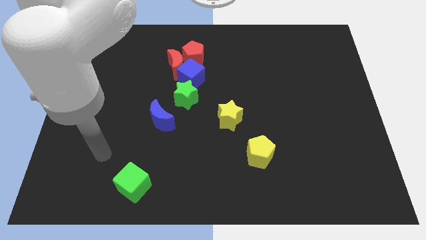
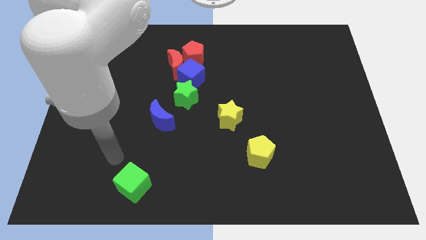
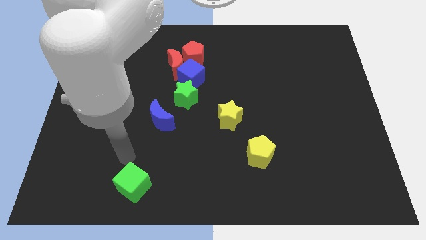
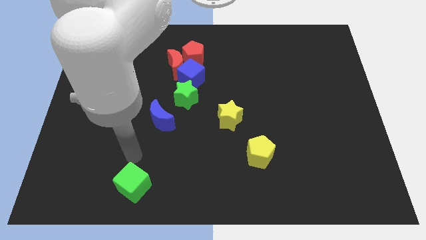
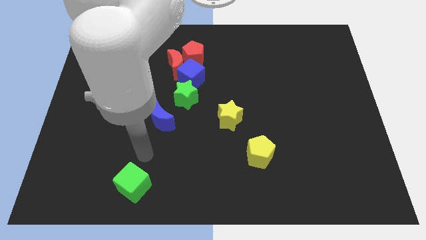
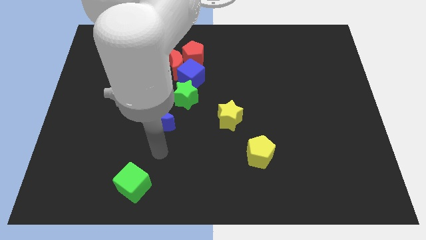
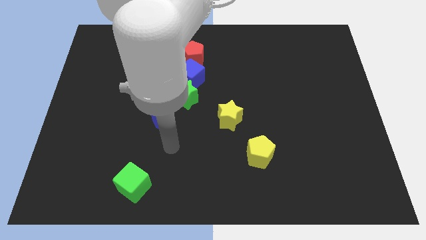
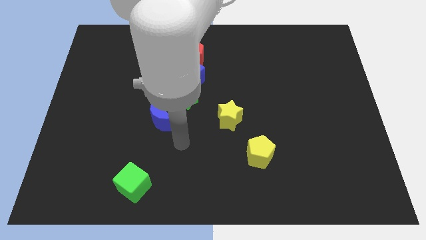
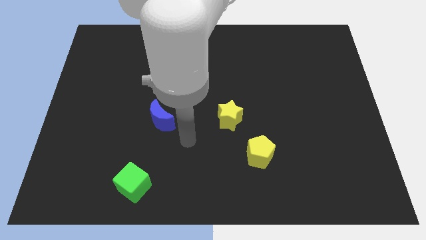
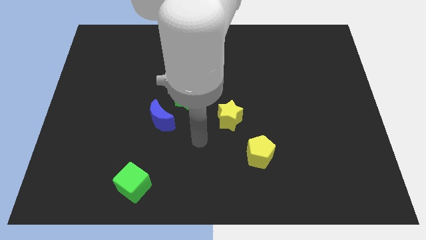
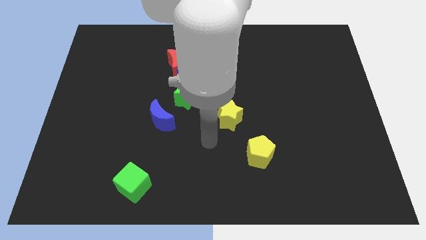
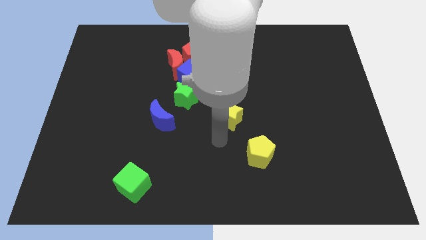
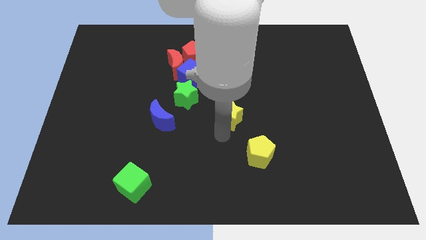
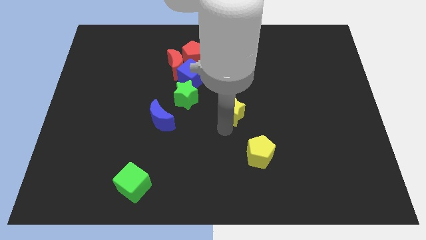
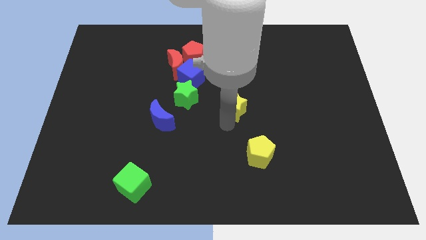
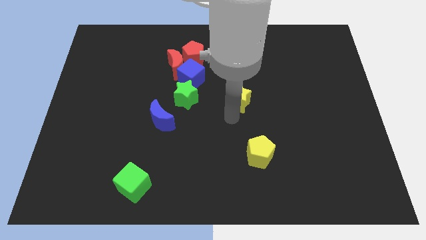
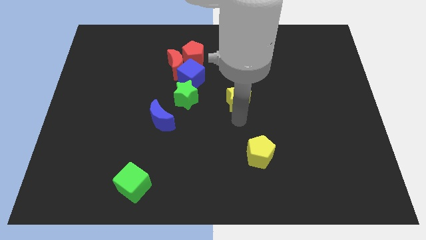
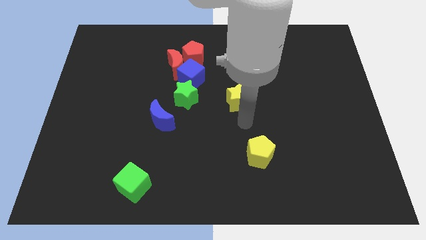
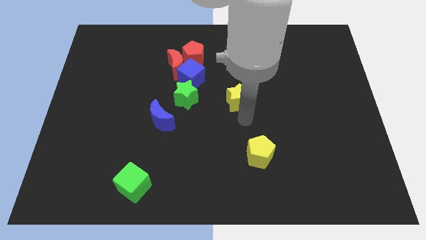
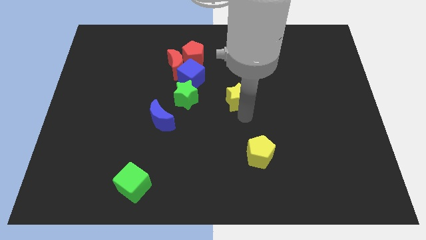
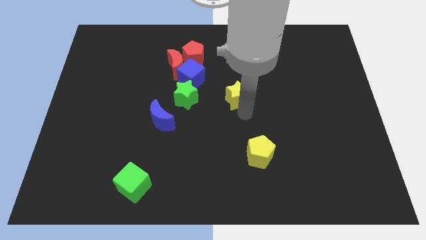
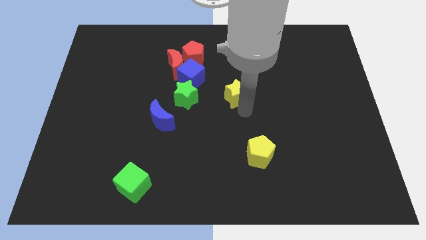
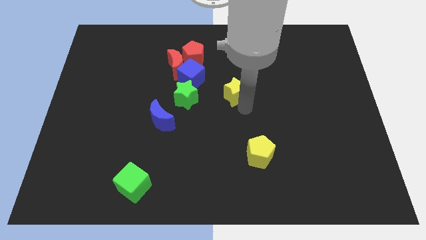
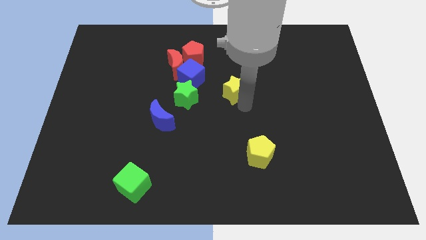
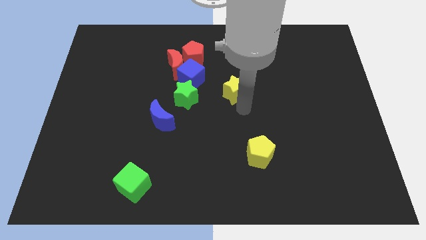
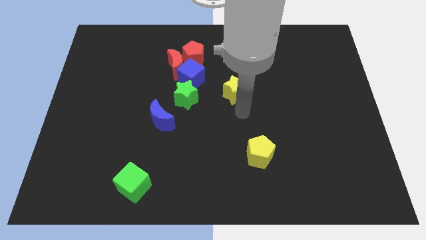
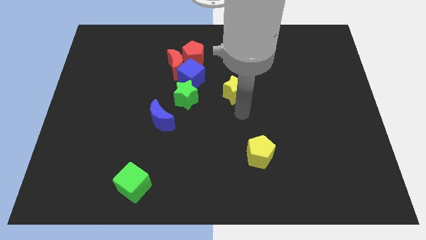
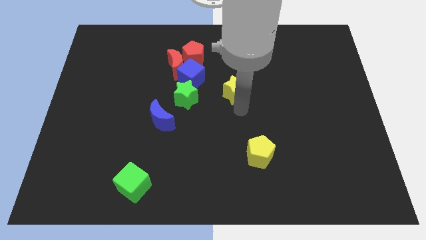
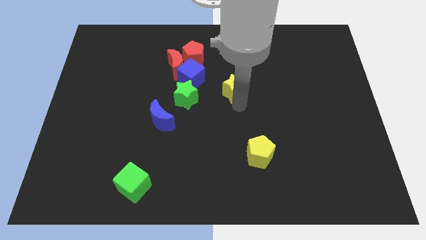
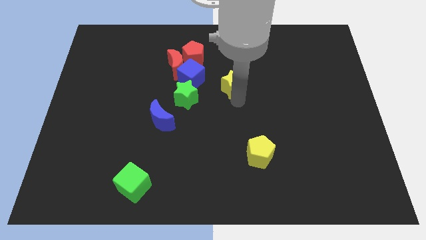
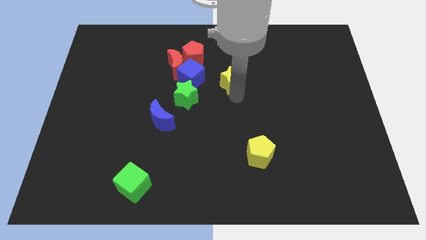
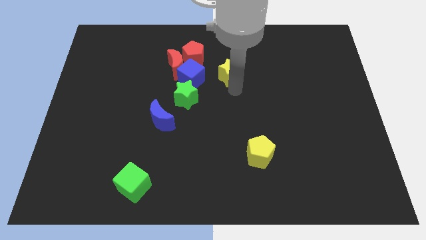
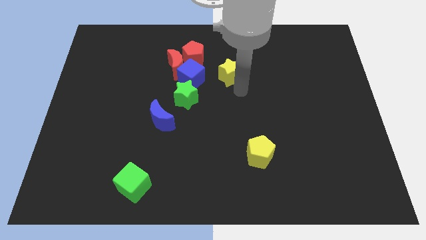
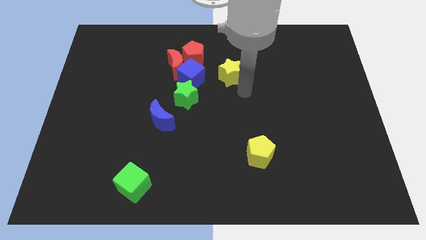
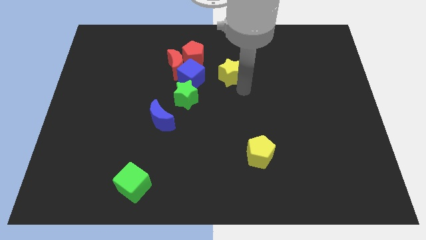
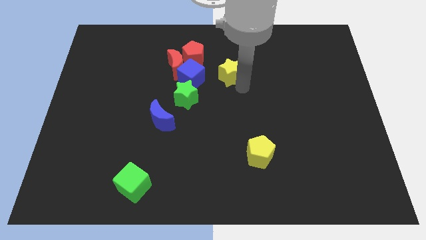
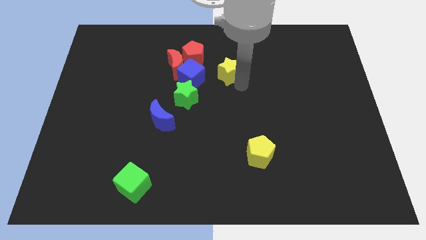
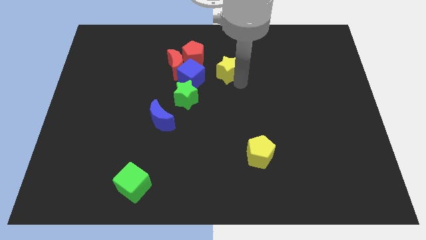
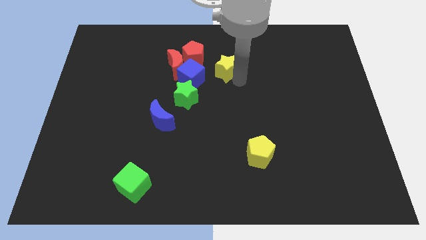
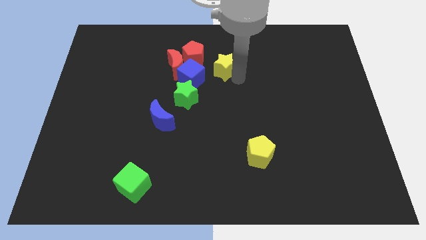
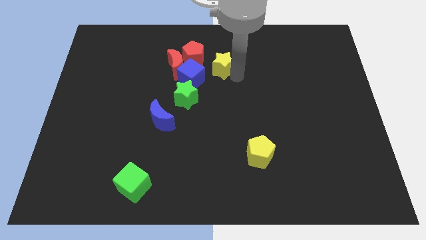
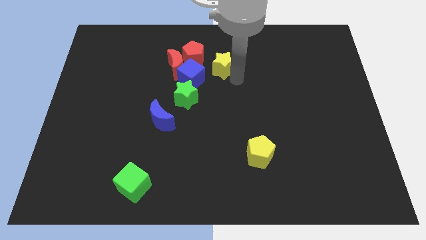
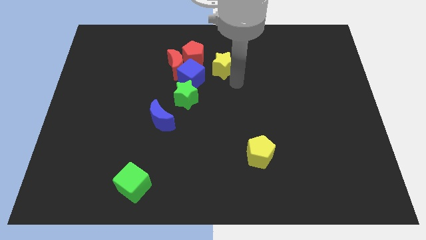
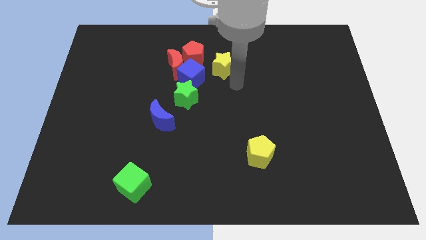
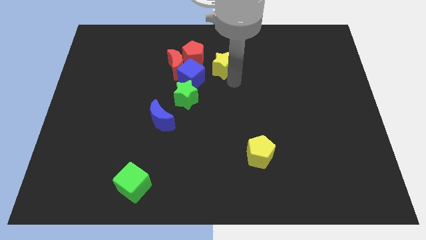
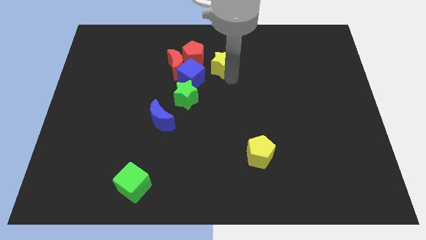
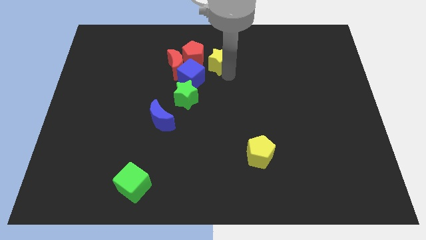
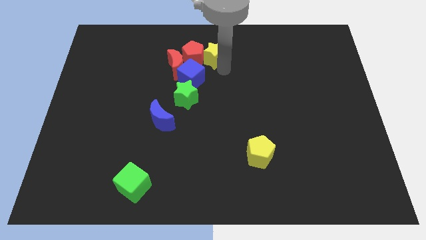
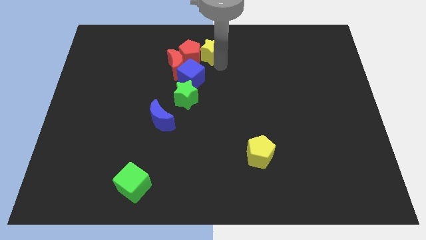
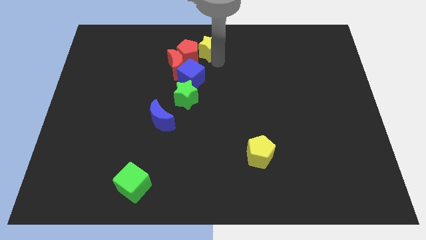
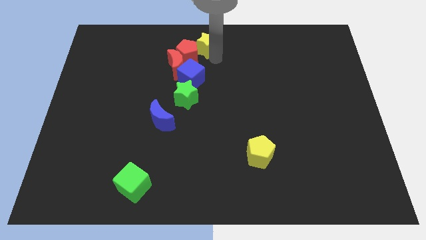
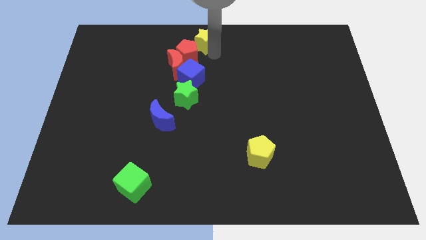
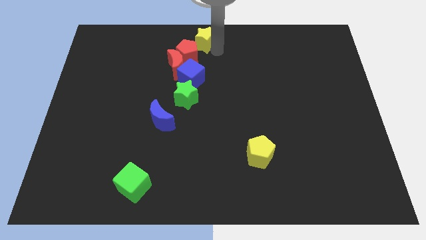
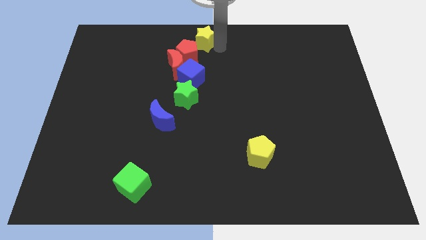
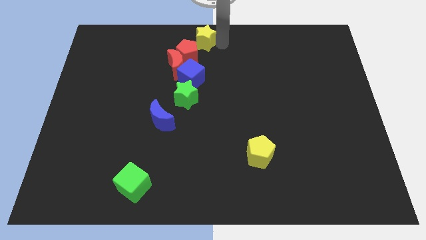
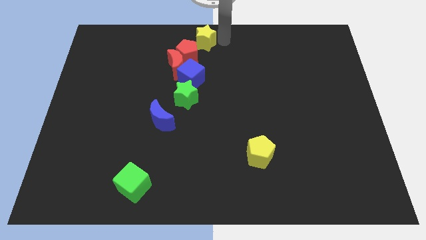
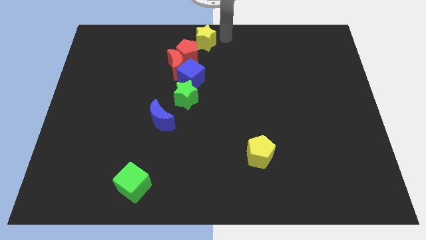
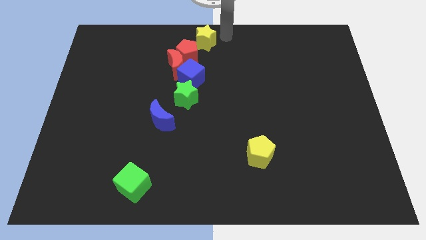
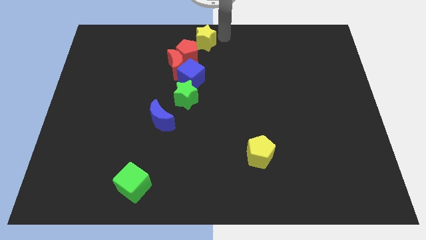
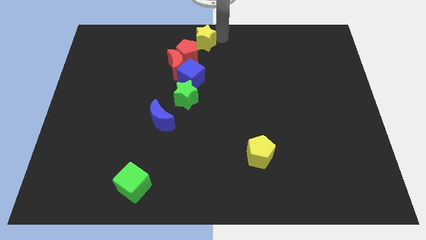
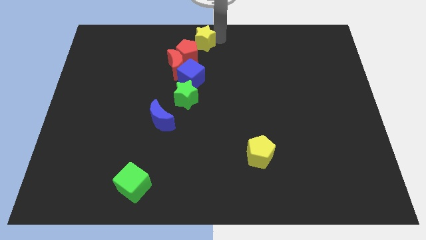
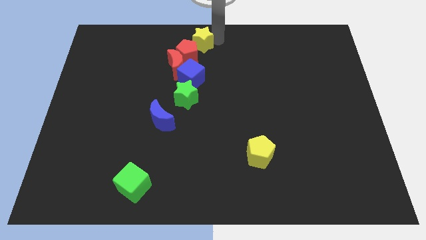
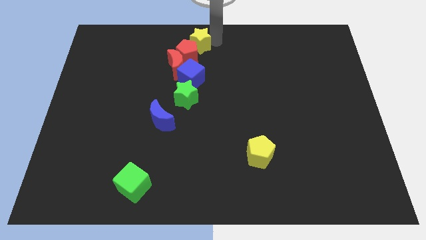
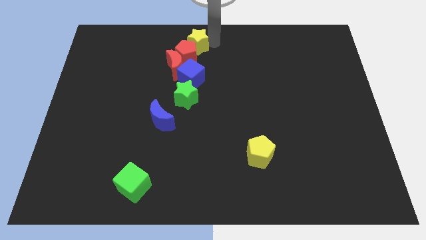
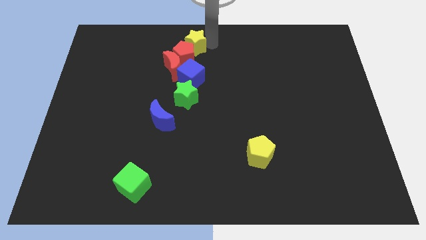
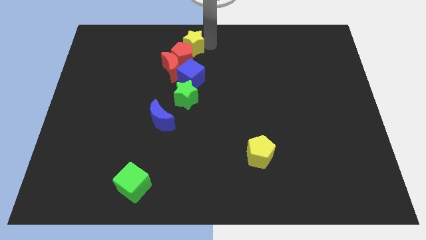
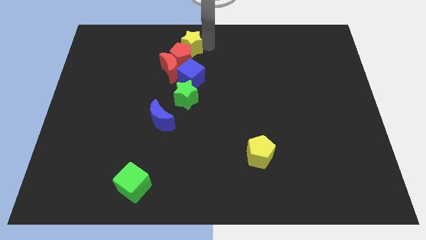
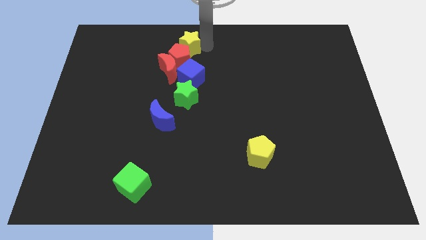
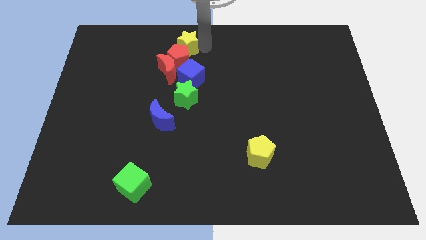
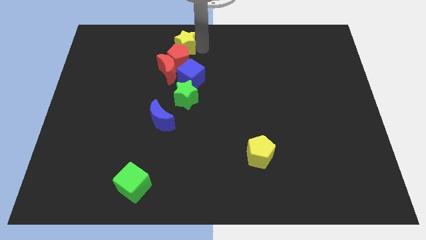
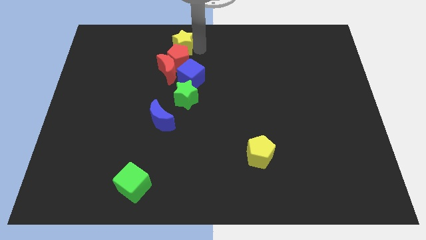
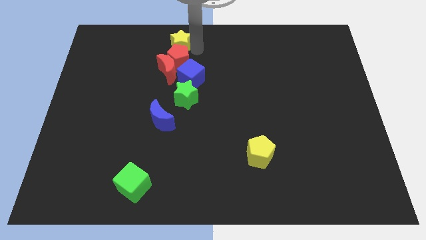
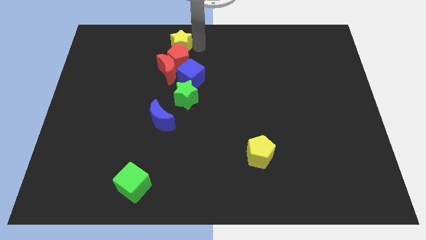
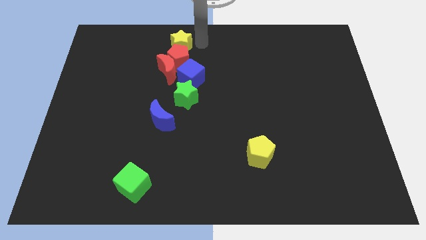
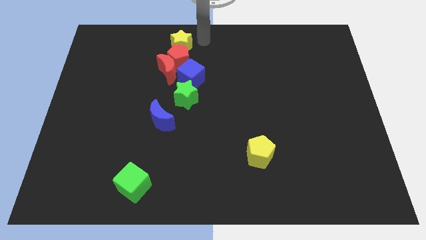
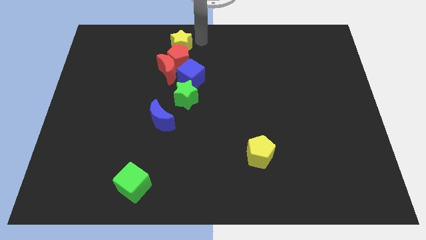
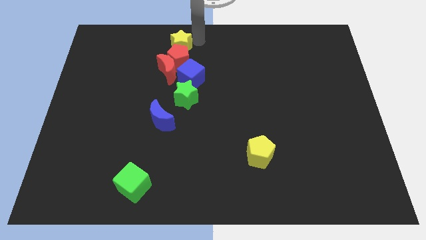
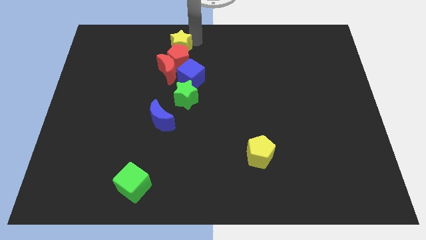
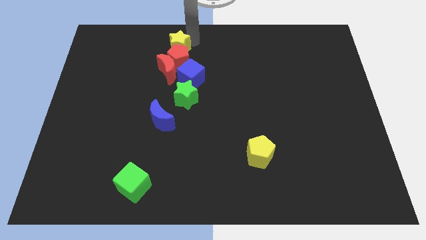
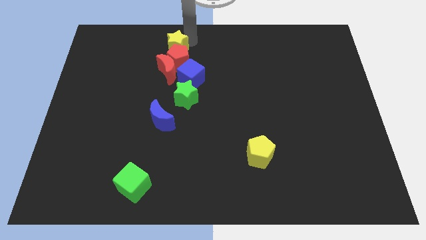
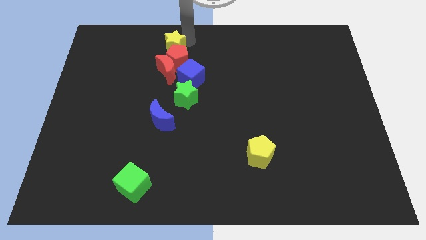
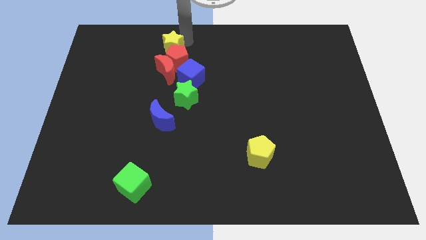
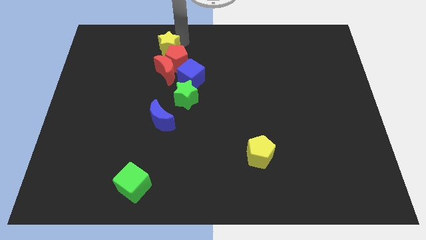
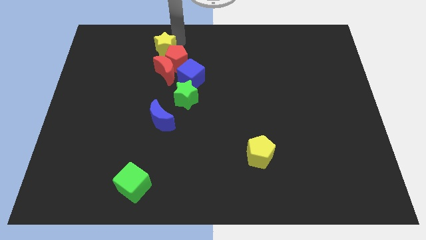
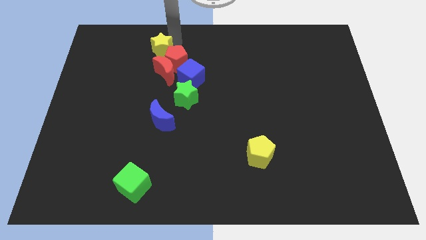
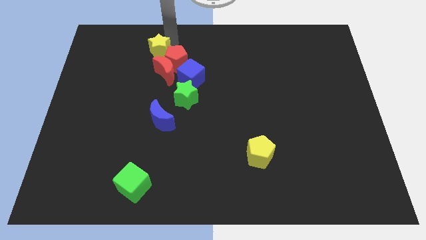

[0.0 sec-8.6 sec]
move the yellow star to the left side of the red pentagon
